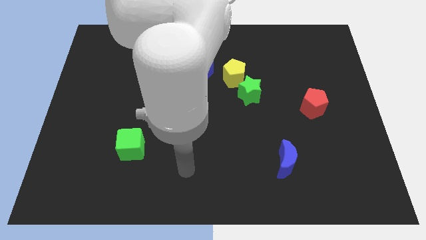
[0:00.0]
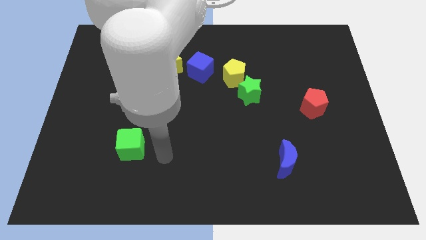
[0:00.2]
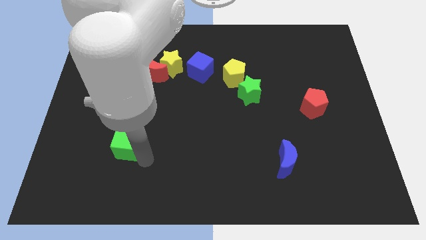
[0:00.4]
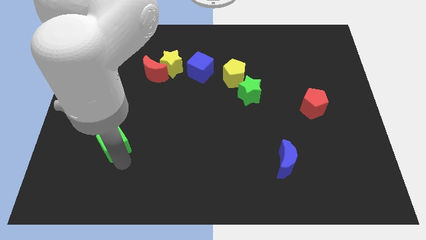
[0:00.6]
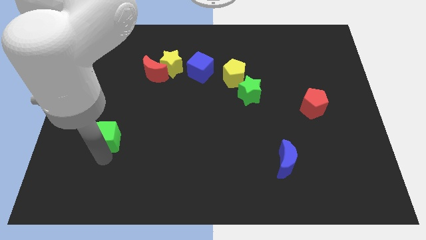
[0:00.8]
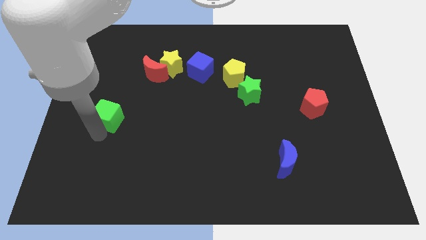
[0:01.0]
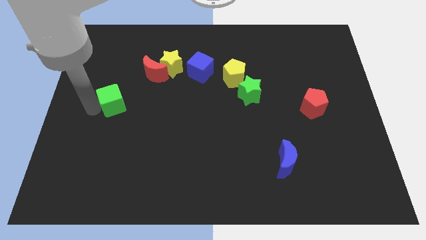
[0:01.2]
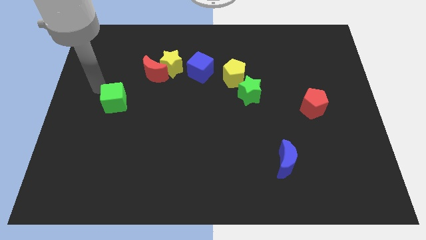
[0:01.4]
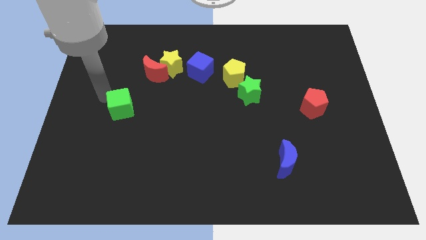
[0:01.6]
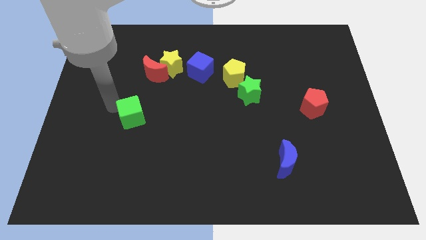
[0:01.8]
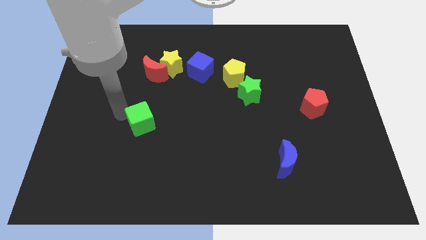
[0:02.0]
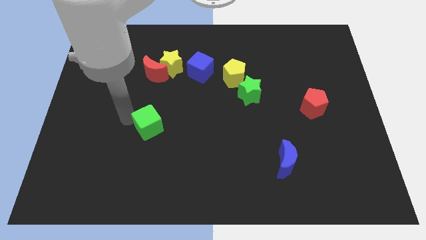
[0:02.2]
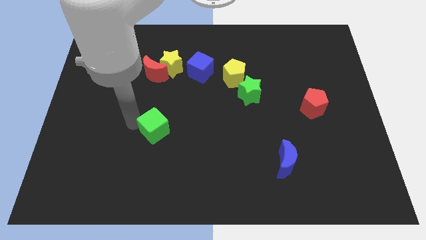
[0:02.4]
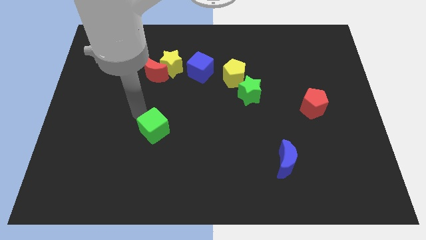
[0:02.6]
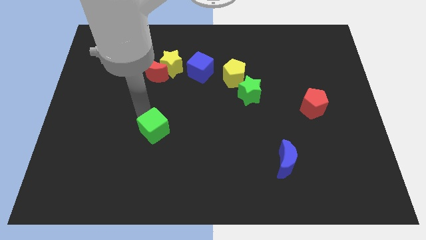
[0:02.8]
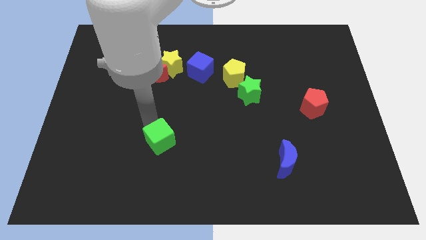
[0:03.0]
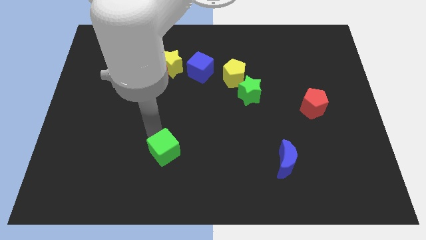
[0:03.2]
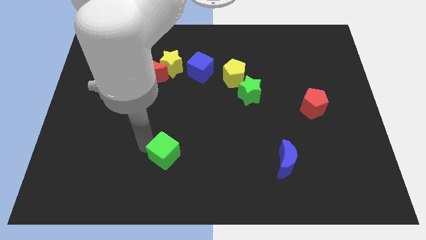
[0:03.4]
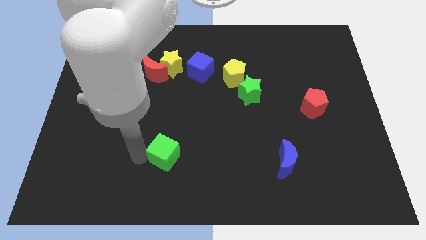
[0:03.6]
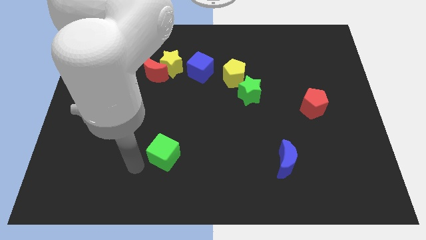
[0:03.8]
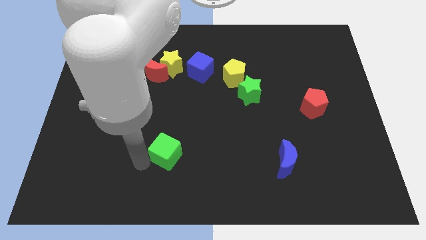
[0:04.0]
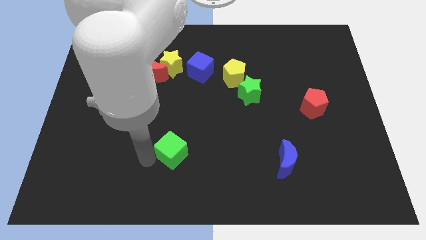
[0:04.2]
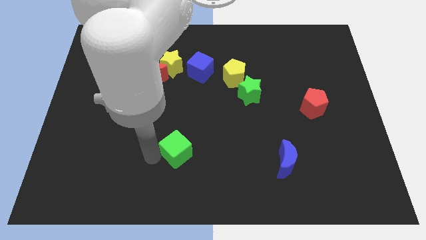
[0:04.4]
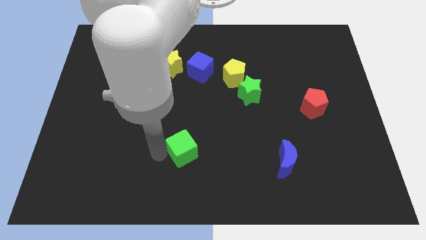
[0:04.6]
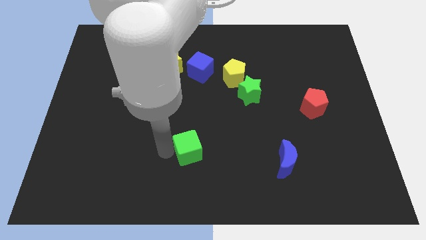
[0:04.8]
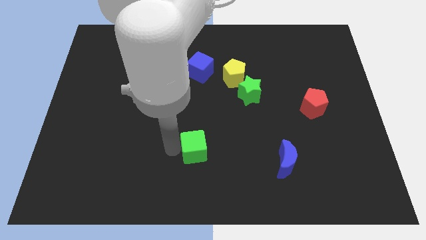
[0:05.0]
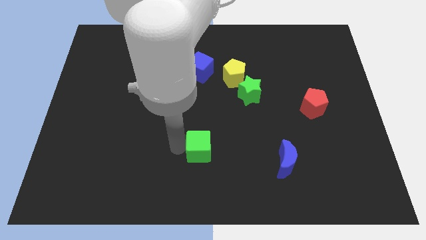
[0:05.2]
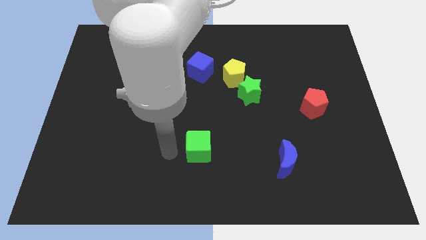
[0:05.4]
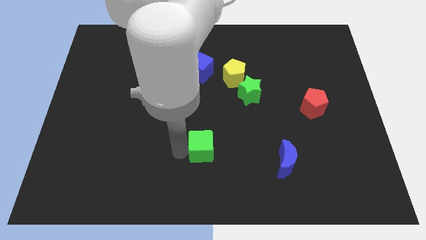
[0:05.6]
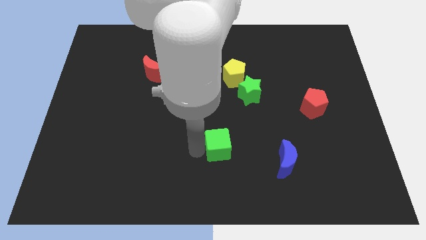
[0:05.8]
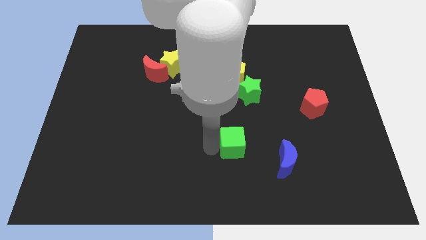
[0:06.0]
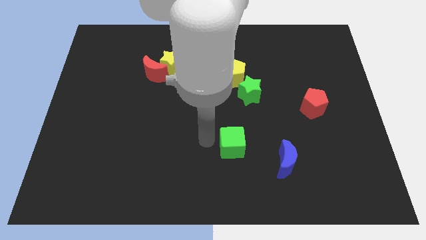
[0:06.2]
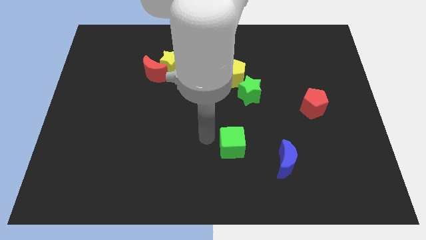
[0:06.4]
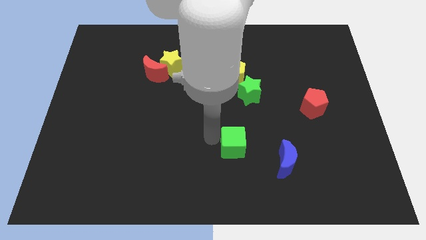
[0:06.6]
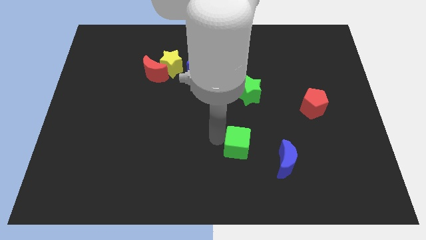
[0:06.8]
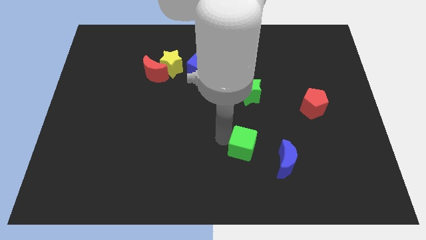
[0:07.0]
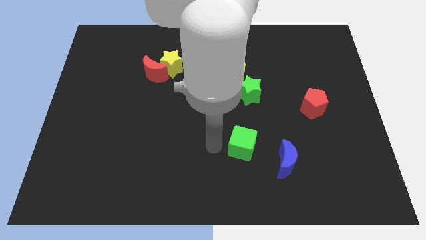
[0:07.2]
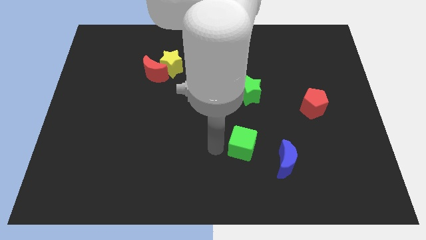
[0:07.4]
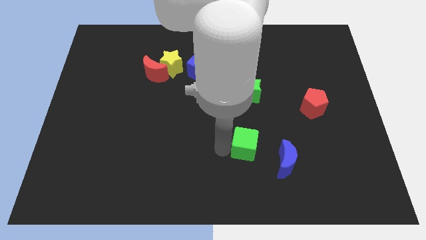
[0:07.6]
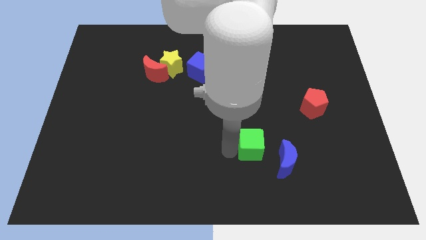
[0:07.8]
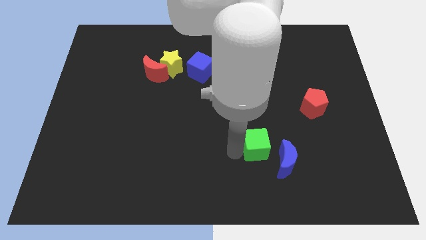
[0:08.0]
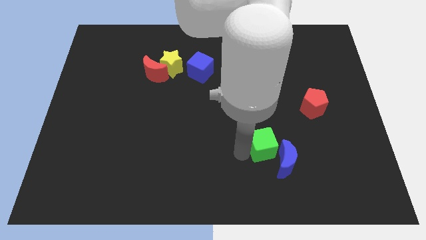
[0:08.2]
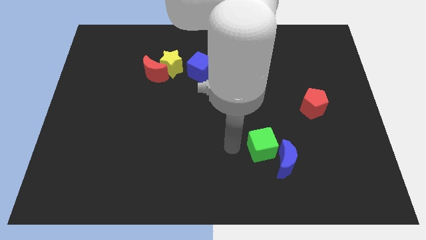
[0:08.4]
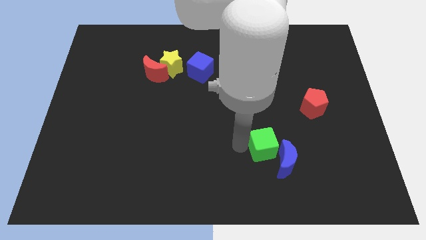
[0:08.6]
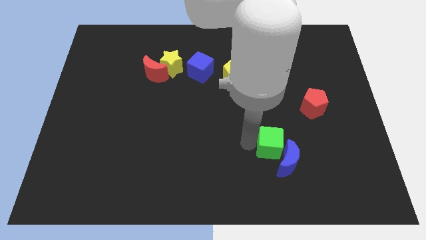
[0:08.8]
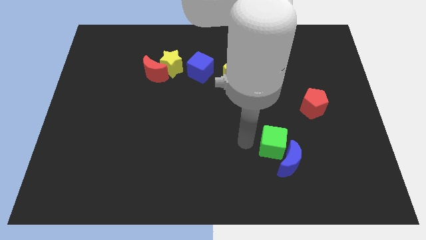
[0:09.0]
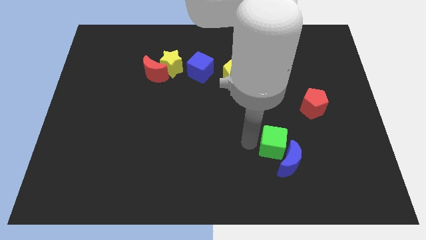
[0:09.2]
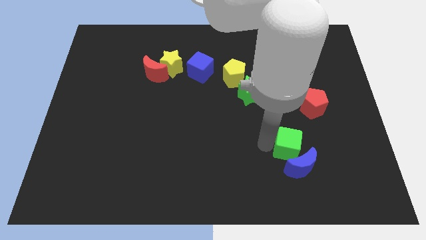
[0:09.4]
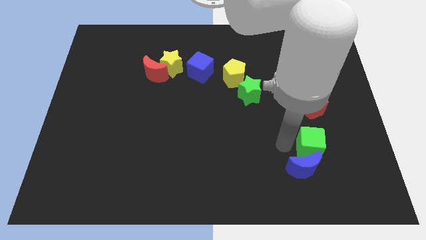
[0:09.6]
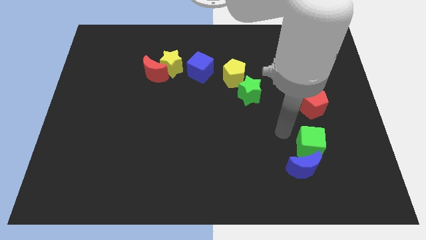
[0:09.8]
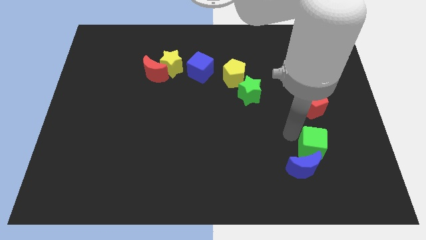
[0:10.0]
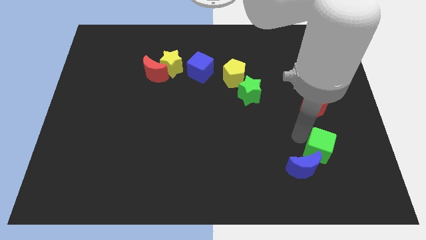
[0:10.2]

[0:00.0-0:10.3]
push the green cube just right of the blue moon

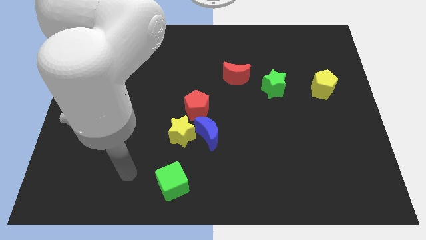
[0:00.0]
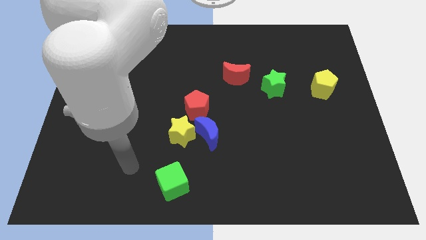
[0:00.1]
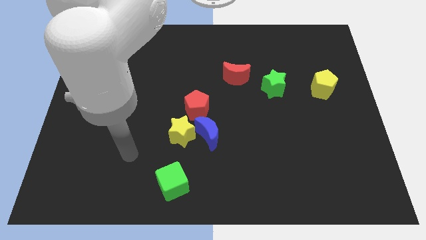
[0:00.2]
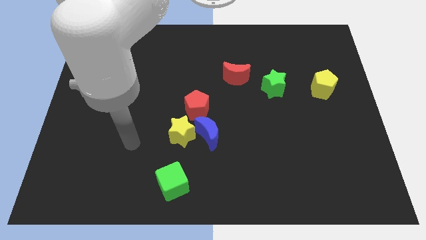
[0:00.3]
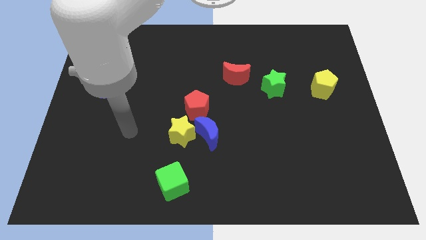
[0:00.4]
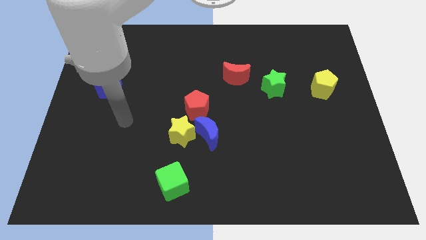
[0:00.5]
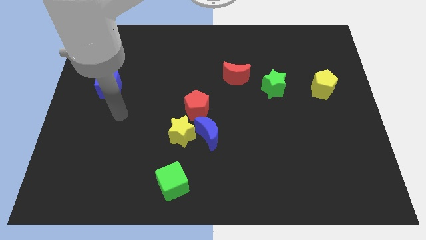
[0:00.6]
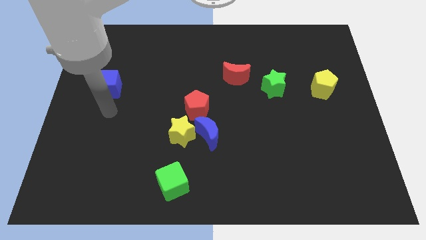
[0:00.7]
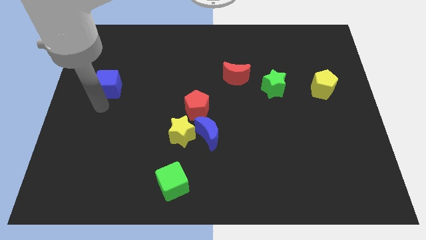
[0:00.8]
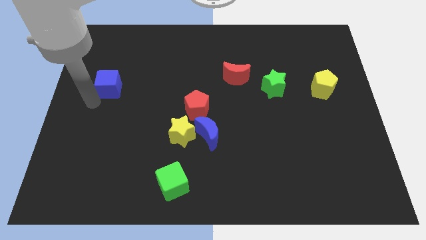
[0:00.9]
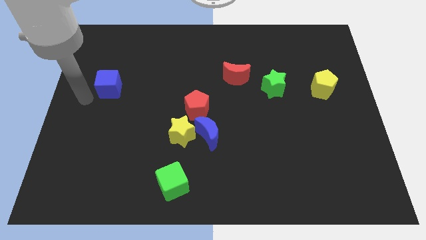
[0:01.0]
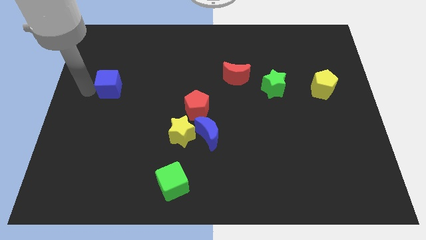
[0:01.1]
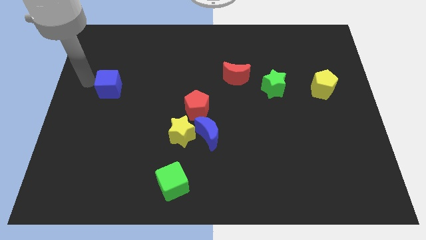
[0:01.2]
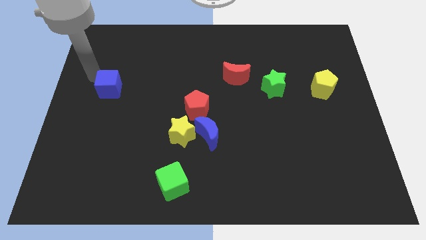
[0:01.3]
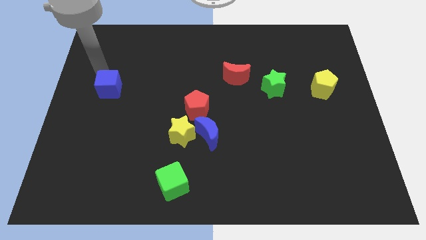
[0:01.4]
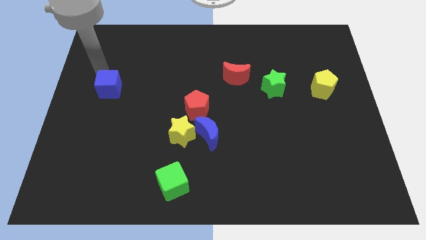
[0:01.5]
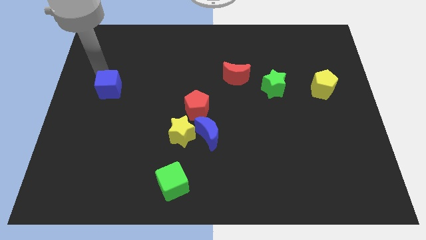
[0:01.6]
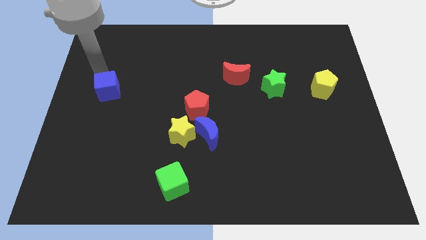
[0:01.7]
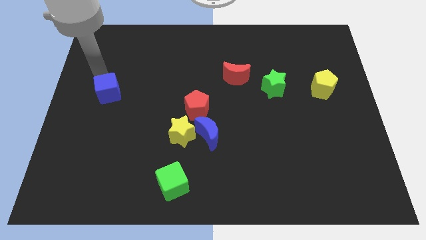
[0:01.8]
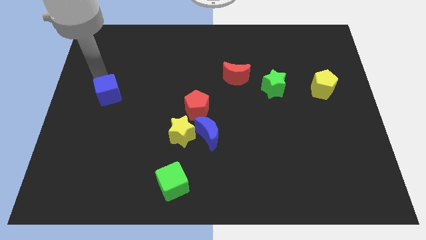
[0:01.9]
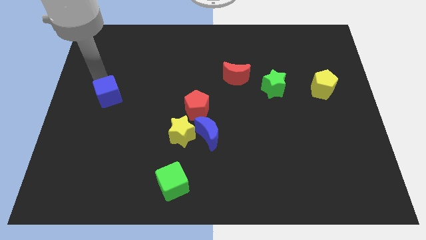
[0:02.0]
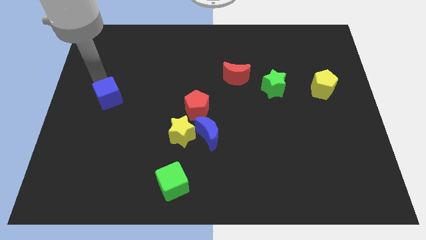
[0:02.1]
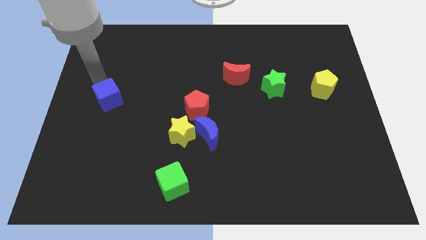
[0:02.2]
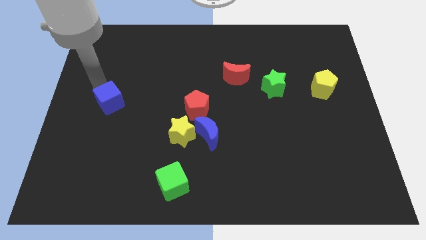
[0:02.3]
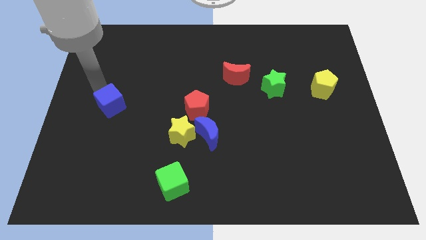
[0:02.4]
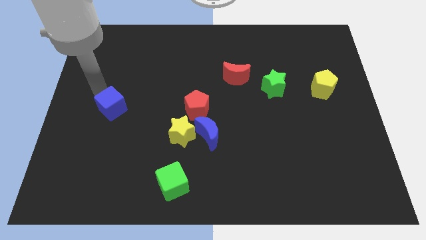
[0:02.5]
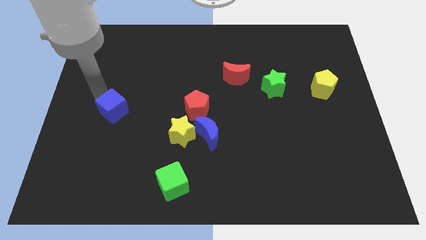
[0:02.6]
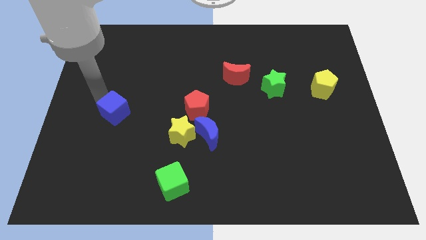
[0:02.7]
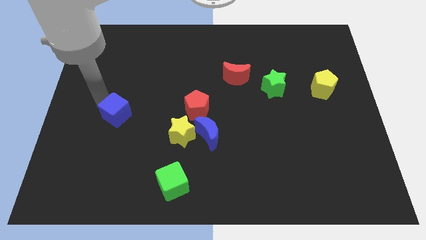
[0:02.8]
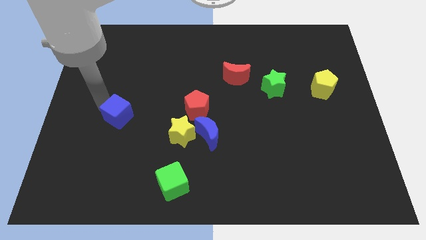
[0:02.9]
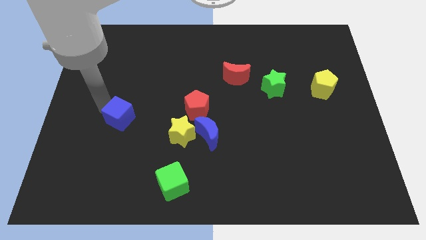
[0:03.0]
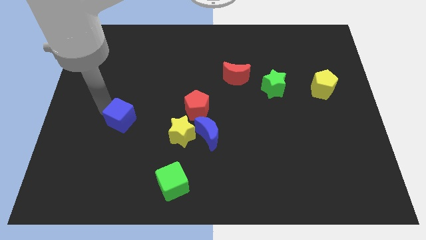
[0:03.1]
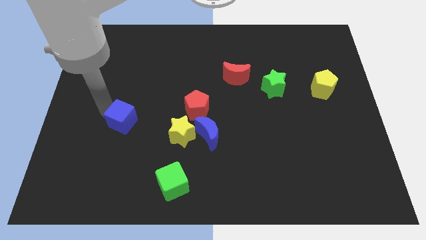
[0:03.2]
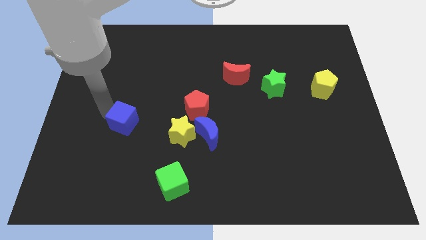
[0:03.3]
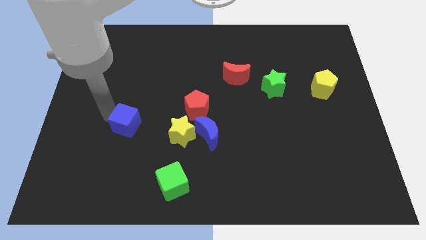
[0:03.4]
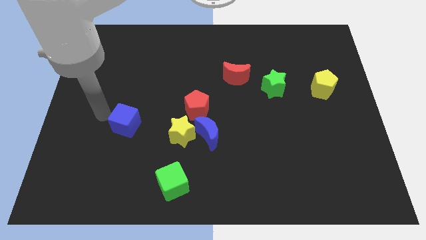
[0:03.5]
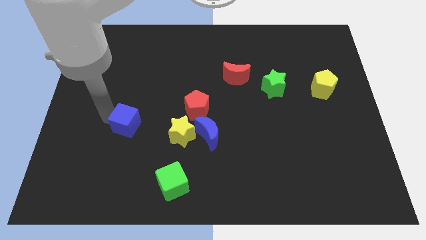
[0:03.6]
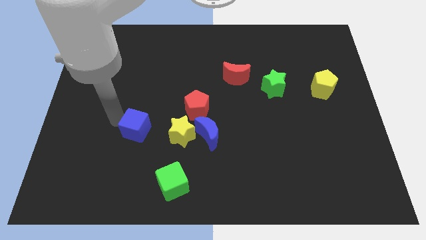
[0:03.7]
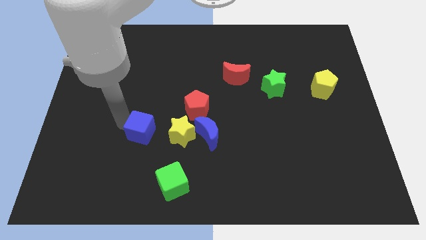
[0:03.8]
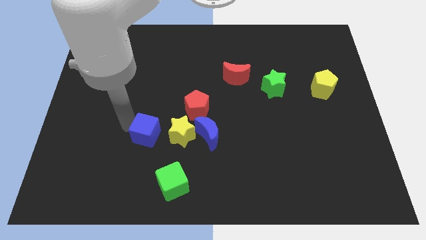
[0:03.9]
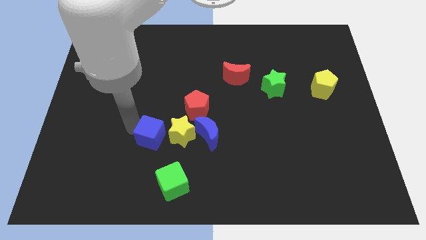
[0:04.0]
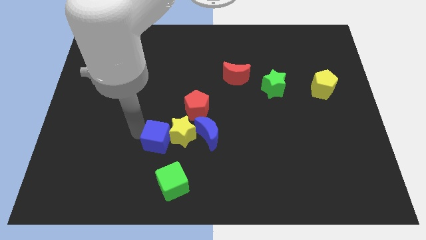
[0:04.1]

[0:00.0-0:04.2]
move the blue cube above the green cube
